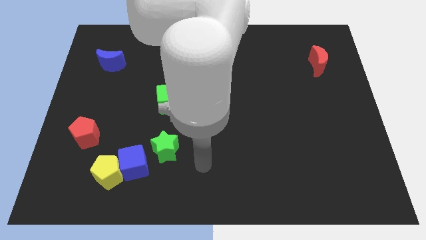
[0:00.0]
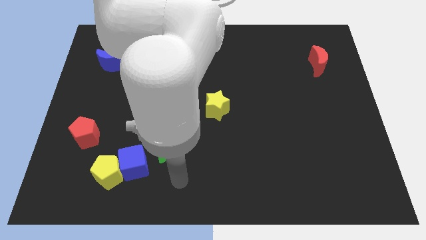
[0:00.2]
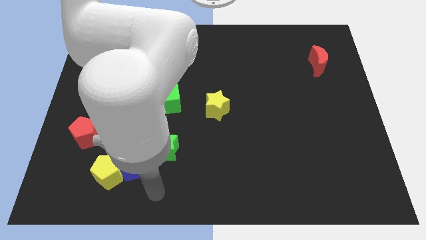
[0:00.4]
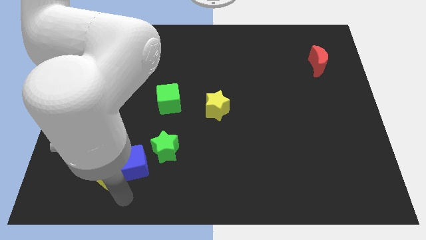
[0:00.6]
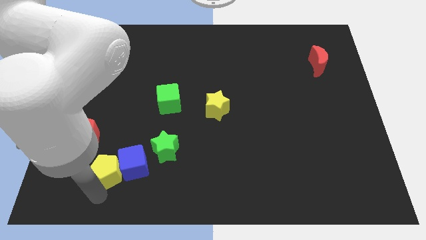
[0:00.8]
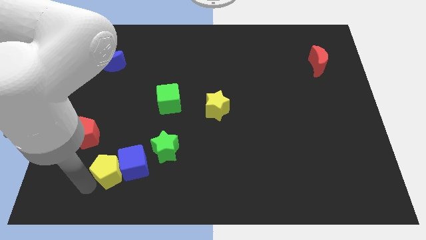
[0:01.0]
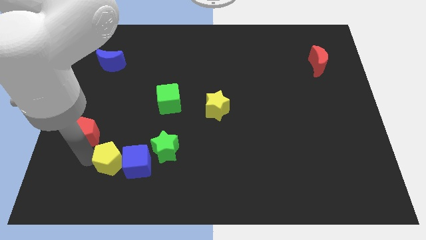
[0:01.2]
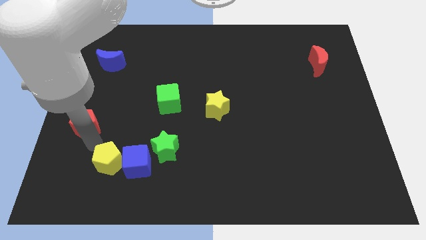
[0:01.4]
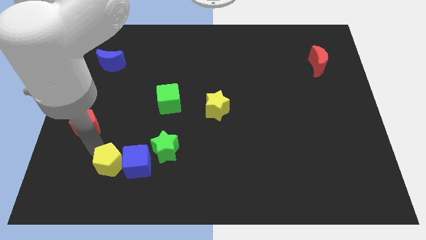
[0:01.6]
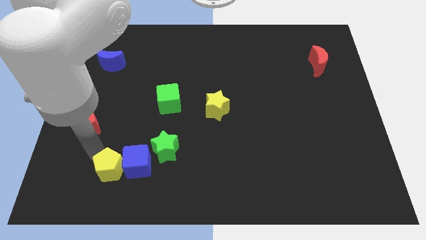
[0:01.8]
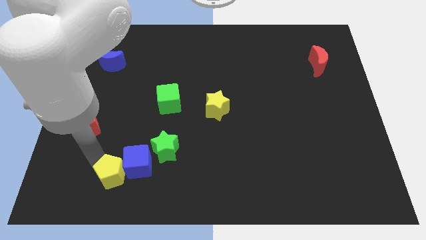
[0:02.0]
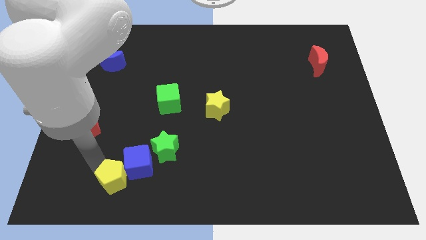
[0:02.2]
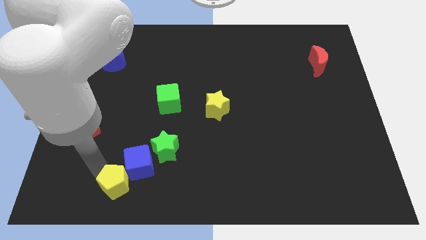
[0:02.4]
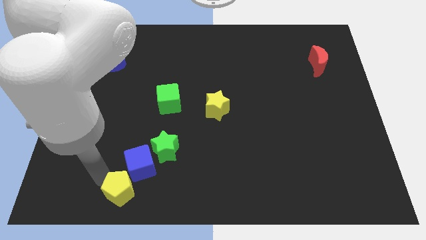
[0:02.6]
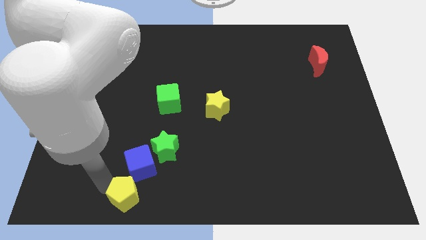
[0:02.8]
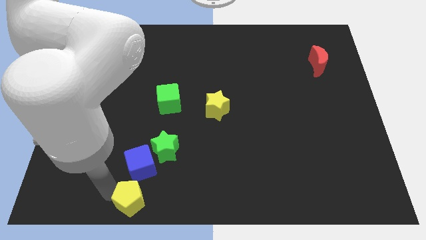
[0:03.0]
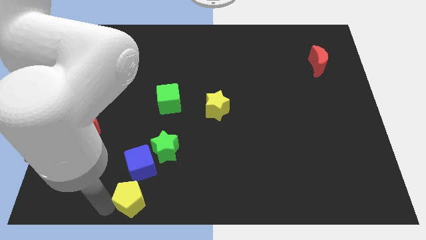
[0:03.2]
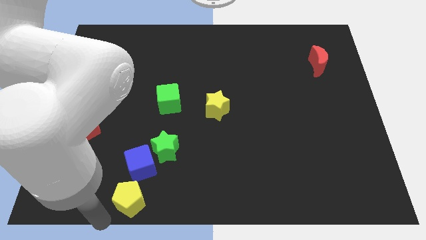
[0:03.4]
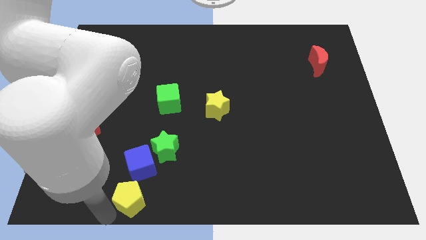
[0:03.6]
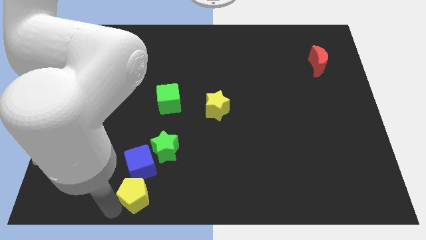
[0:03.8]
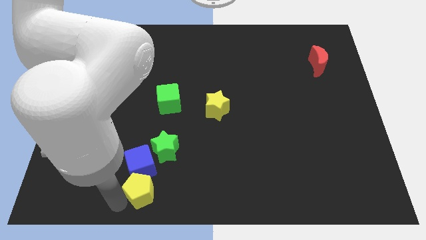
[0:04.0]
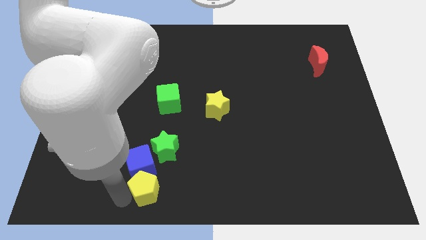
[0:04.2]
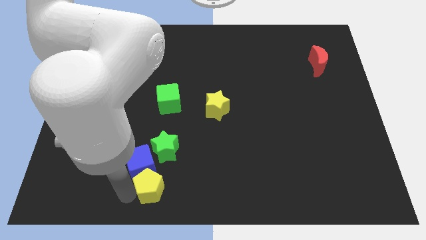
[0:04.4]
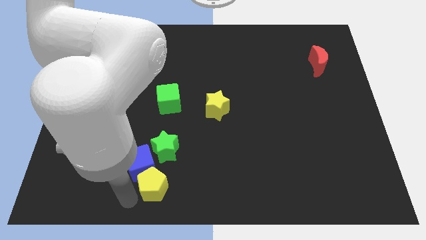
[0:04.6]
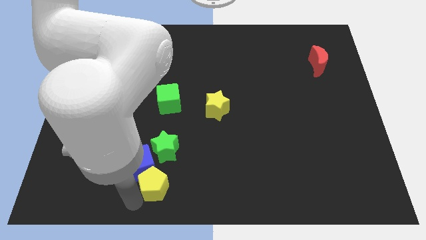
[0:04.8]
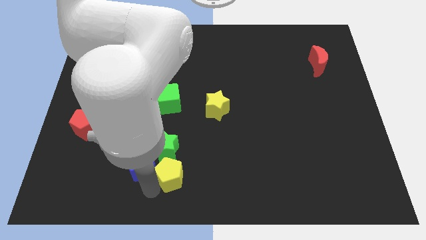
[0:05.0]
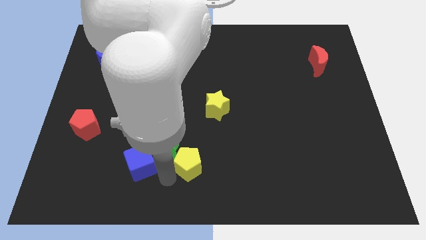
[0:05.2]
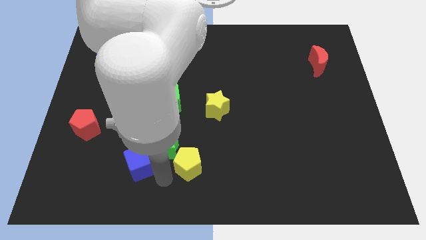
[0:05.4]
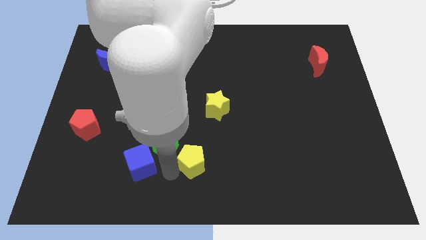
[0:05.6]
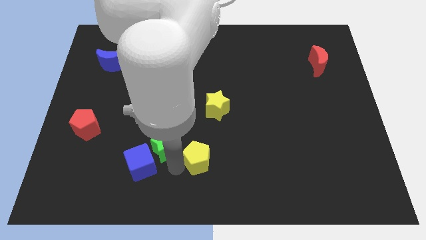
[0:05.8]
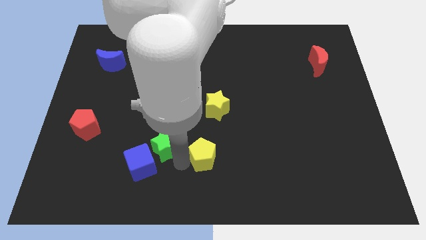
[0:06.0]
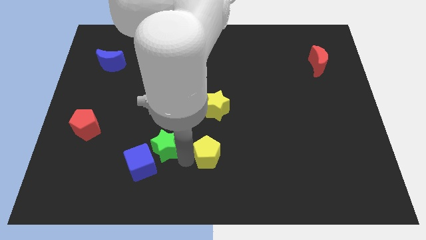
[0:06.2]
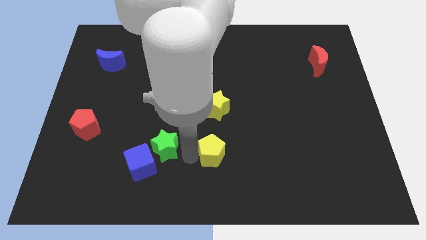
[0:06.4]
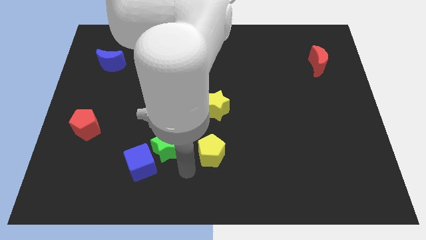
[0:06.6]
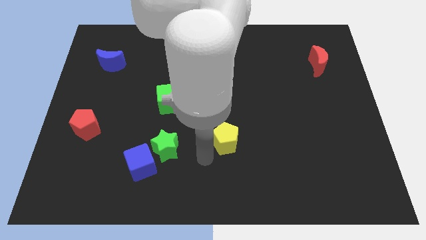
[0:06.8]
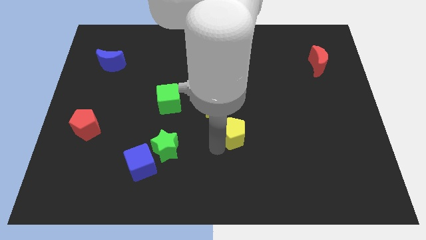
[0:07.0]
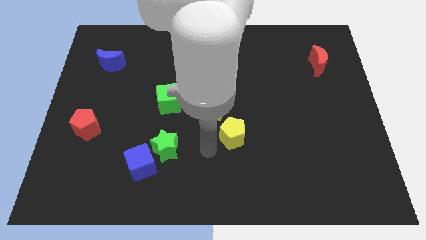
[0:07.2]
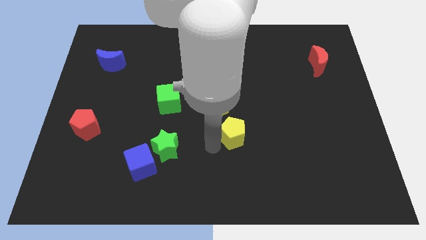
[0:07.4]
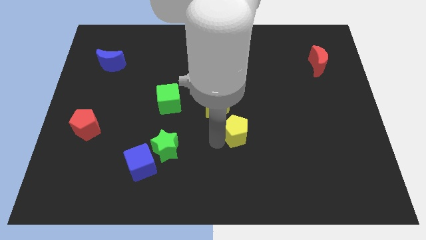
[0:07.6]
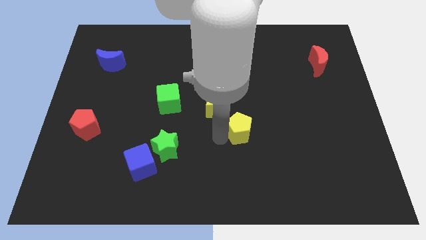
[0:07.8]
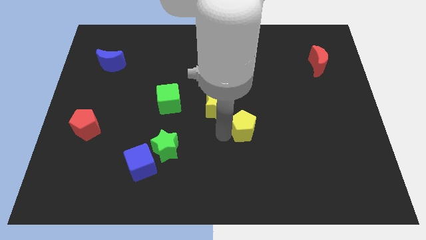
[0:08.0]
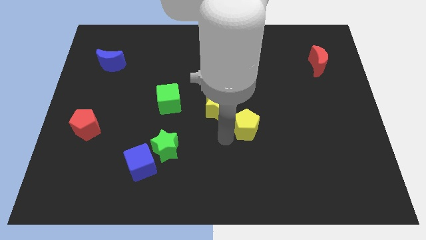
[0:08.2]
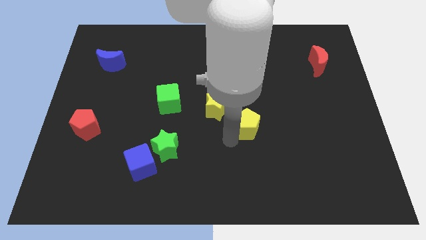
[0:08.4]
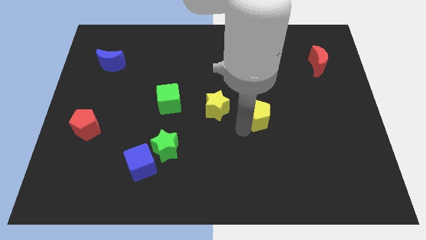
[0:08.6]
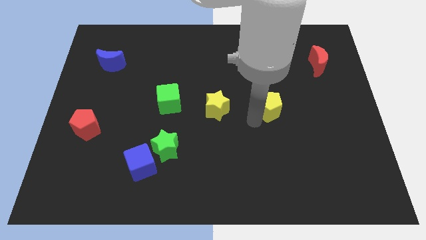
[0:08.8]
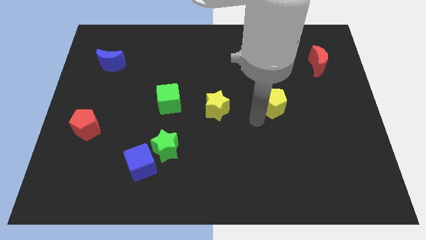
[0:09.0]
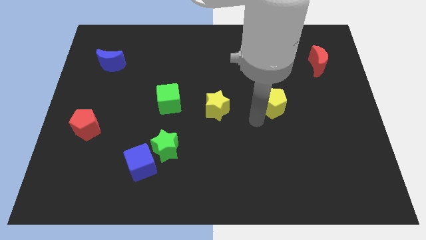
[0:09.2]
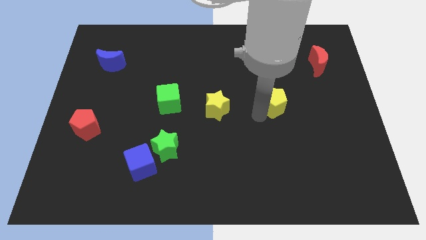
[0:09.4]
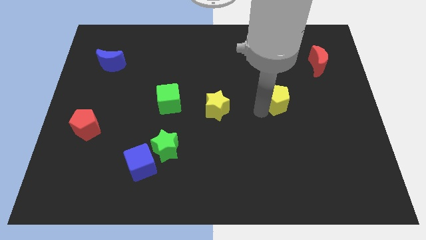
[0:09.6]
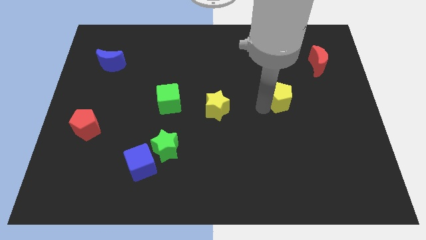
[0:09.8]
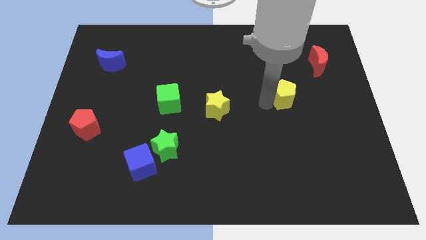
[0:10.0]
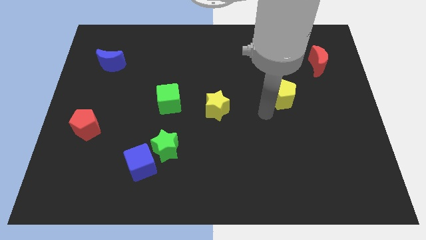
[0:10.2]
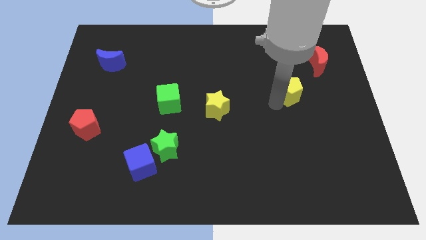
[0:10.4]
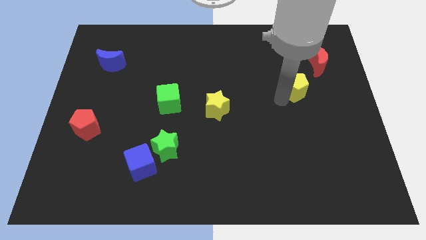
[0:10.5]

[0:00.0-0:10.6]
slide the yellow pentagon to the bottom left side of the red moon

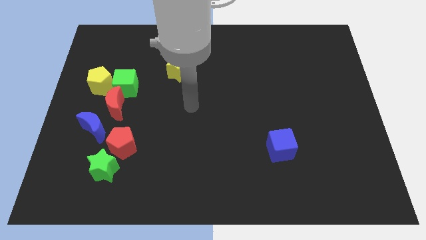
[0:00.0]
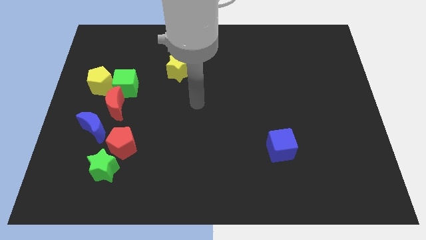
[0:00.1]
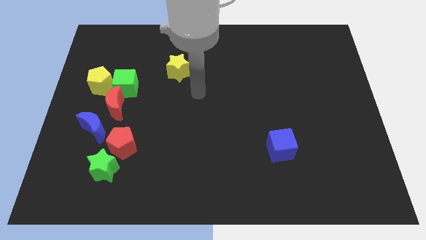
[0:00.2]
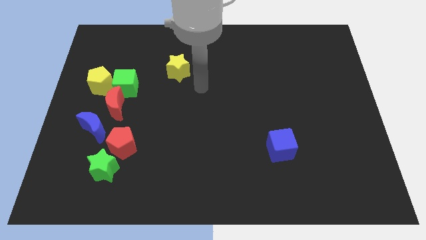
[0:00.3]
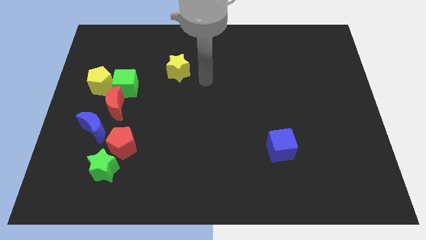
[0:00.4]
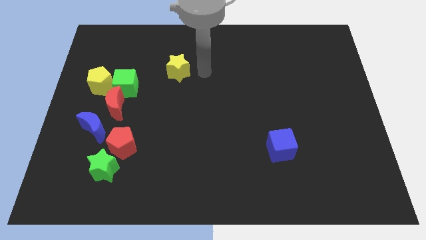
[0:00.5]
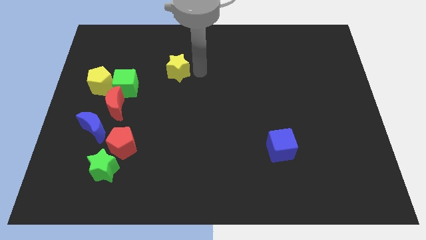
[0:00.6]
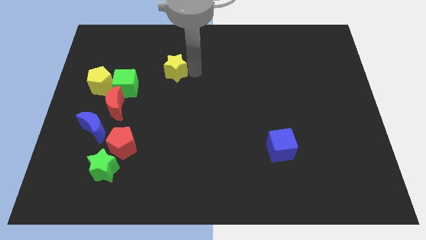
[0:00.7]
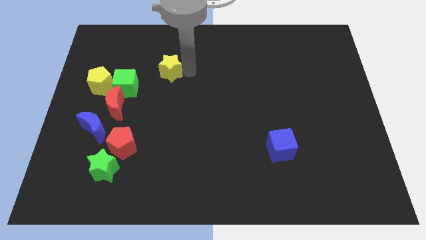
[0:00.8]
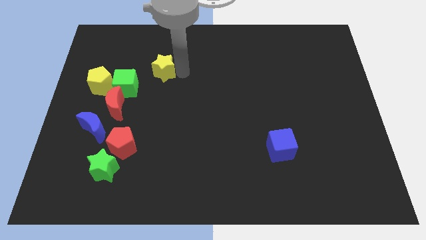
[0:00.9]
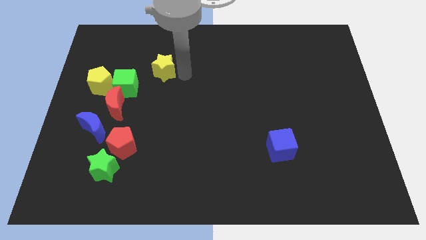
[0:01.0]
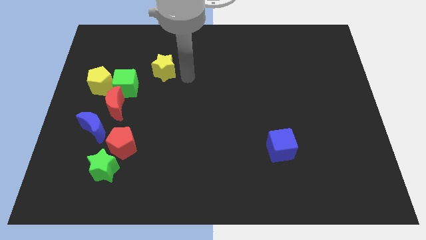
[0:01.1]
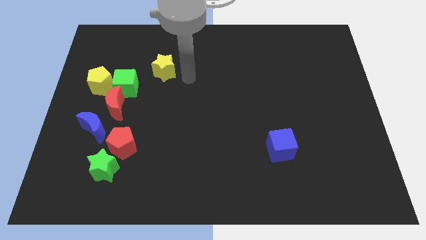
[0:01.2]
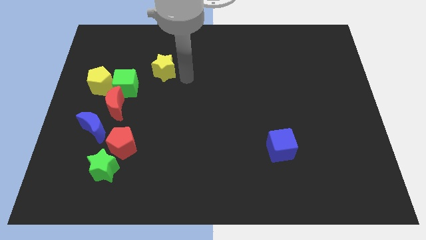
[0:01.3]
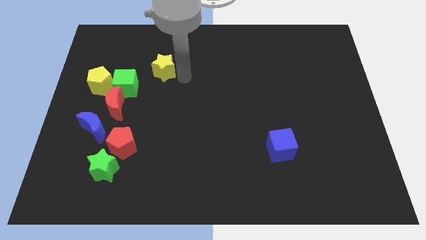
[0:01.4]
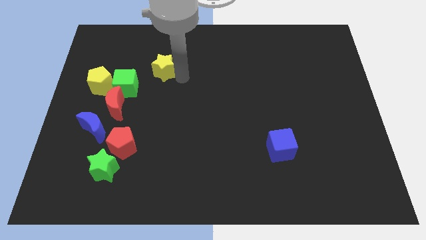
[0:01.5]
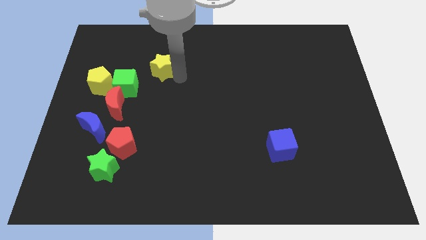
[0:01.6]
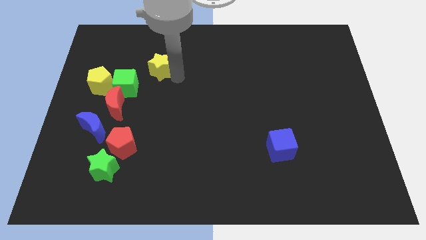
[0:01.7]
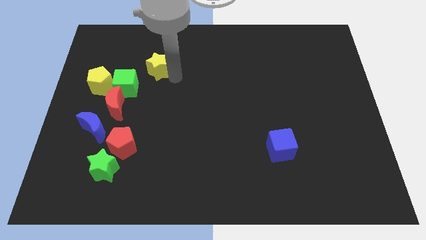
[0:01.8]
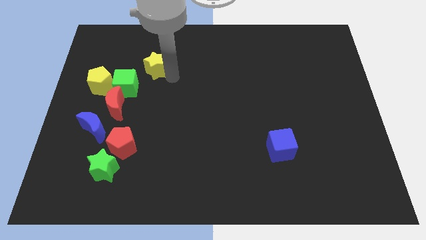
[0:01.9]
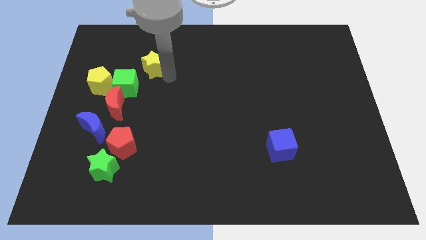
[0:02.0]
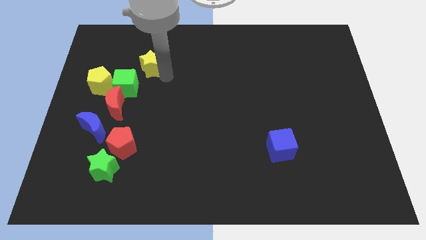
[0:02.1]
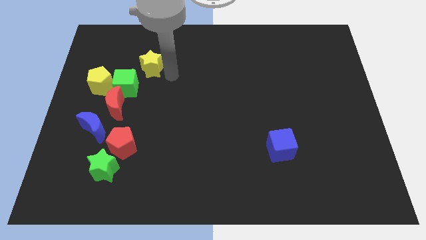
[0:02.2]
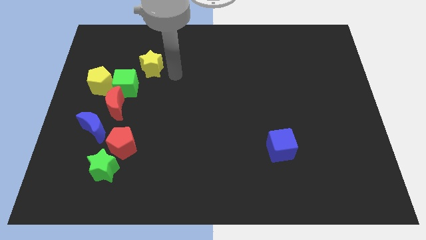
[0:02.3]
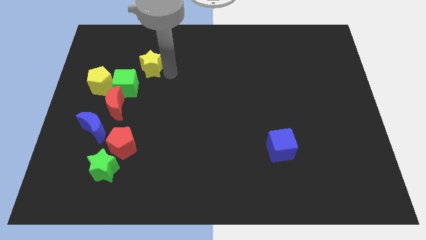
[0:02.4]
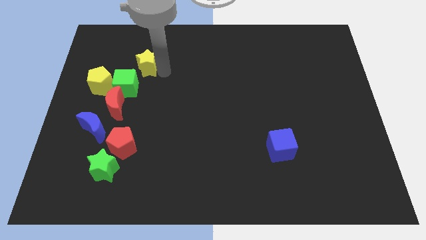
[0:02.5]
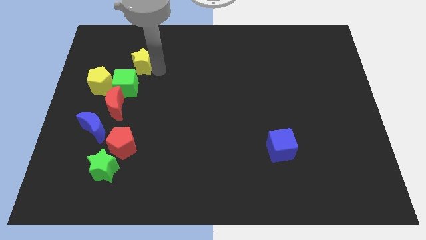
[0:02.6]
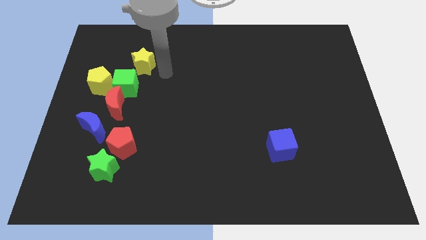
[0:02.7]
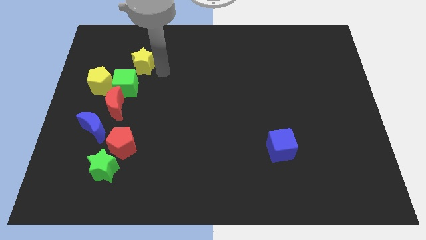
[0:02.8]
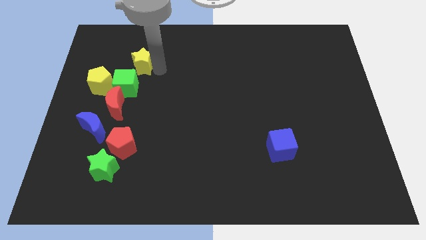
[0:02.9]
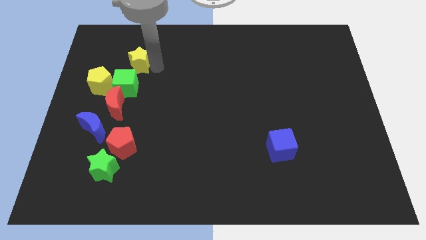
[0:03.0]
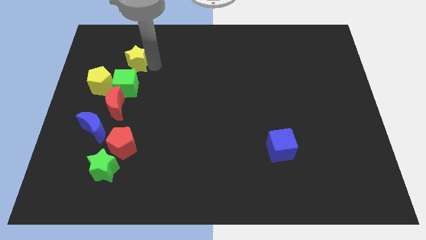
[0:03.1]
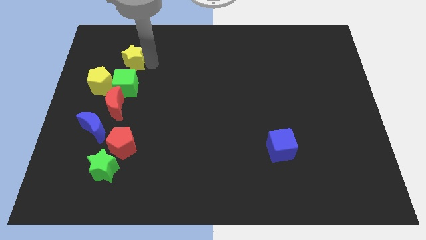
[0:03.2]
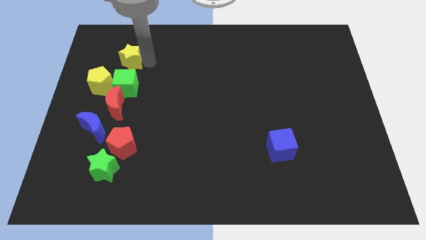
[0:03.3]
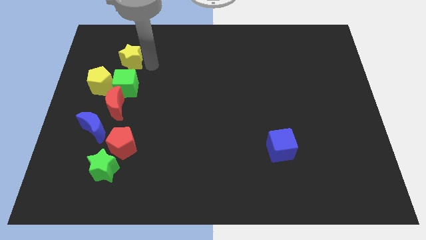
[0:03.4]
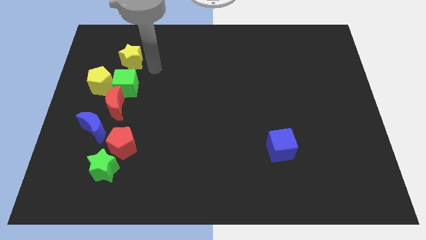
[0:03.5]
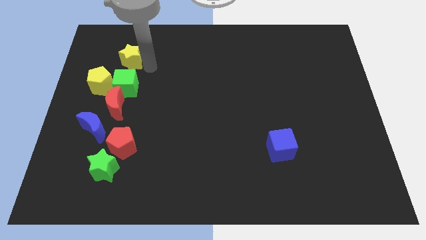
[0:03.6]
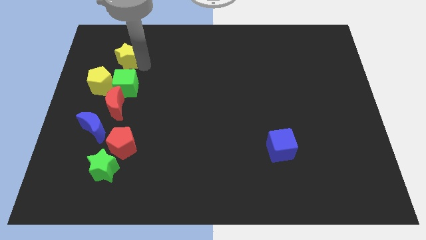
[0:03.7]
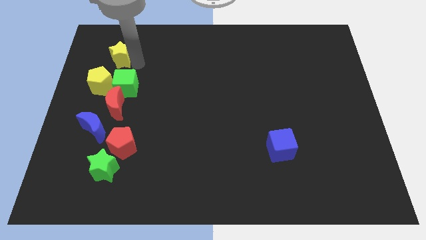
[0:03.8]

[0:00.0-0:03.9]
put the yellow star to the top of the yellow pentagon
